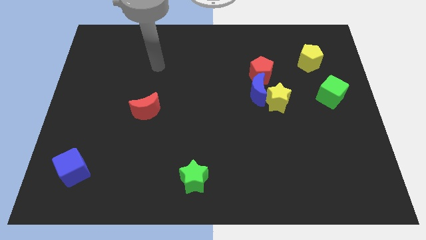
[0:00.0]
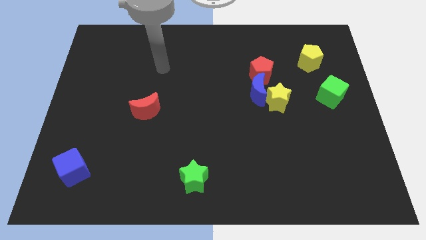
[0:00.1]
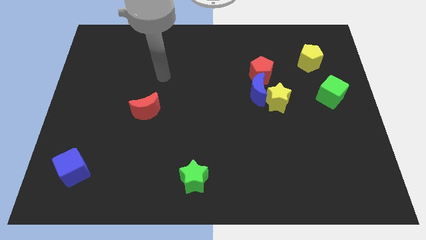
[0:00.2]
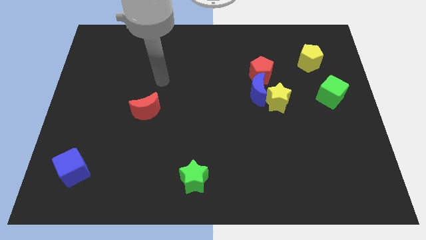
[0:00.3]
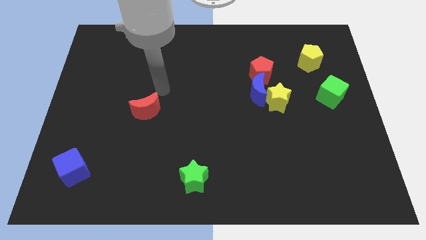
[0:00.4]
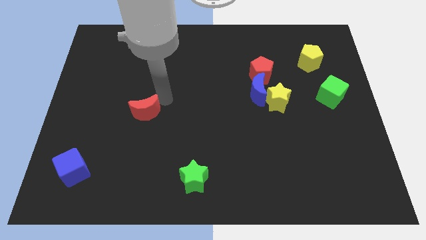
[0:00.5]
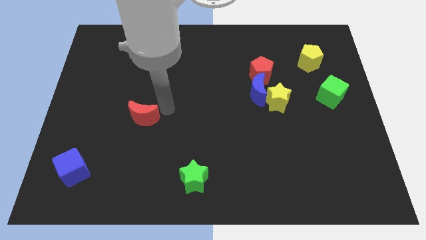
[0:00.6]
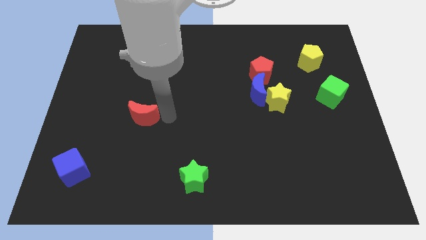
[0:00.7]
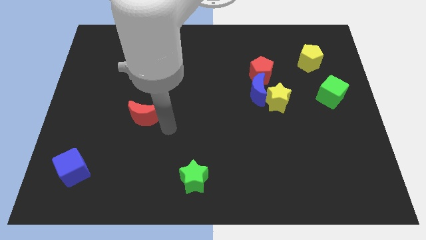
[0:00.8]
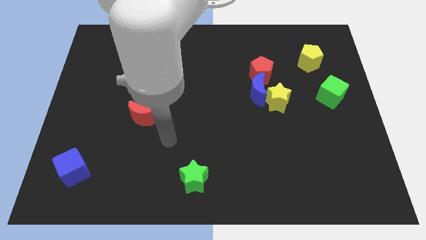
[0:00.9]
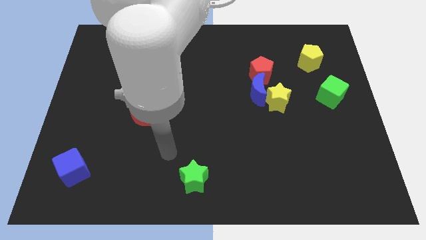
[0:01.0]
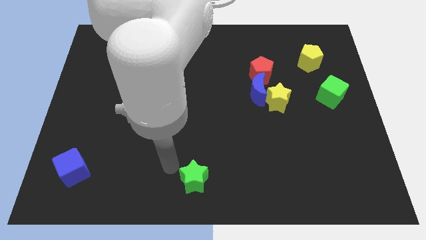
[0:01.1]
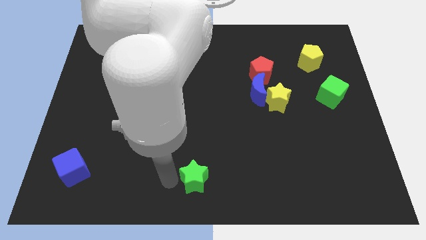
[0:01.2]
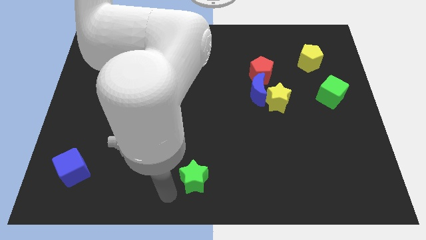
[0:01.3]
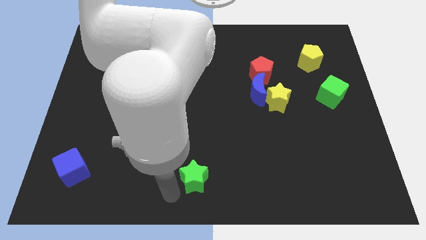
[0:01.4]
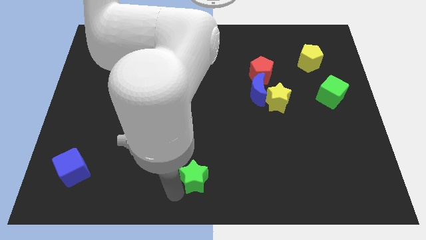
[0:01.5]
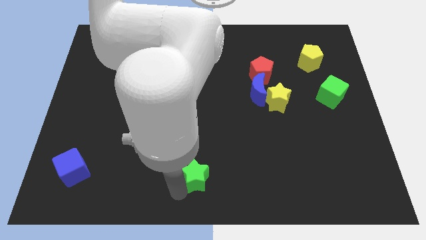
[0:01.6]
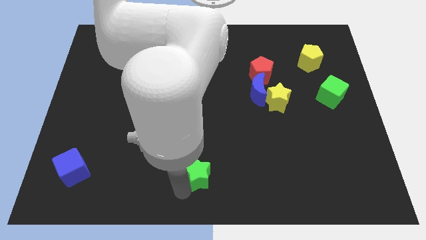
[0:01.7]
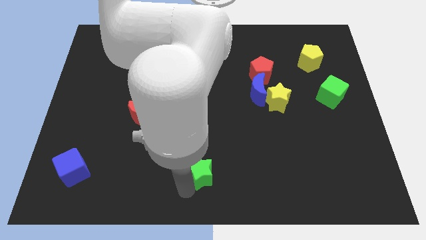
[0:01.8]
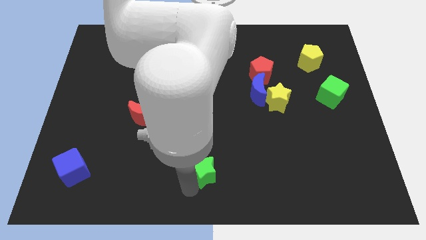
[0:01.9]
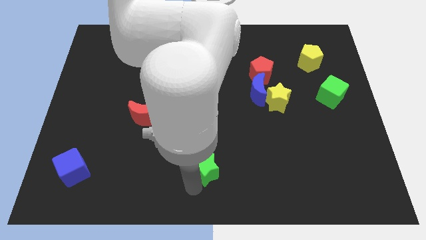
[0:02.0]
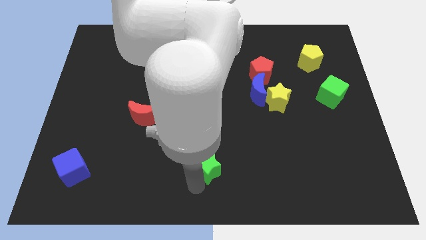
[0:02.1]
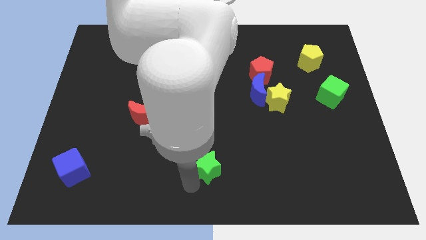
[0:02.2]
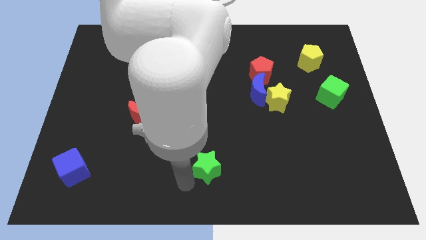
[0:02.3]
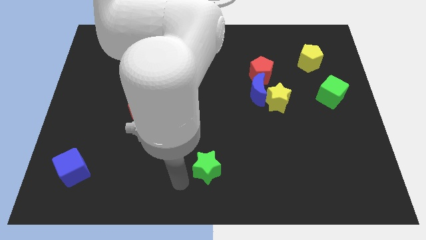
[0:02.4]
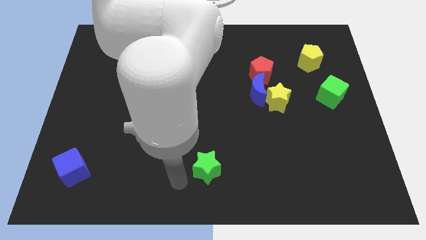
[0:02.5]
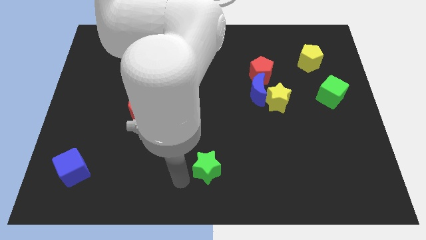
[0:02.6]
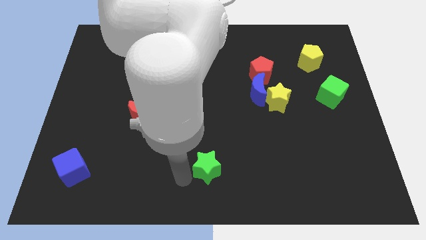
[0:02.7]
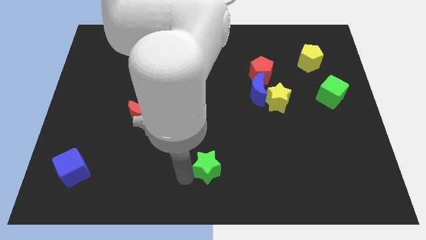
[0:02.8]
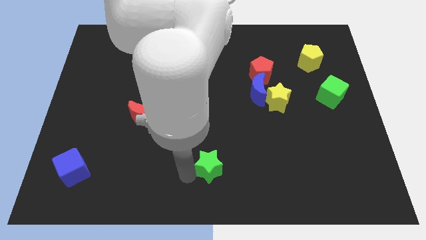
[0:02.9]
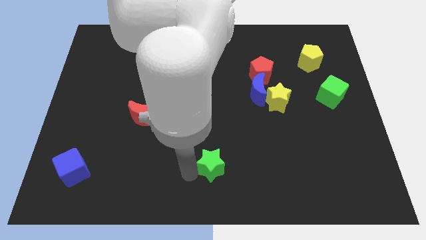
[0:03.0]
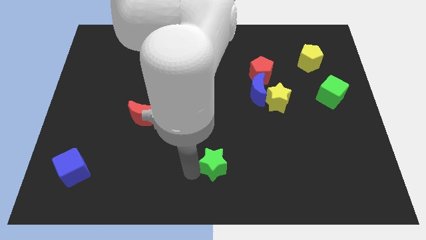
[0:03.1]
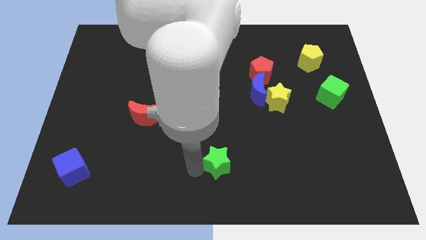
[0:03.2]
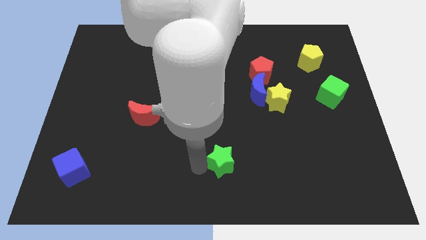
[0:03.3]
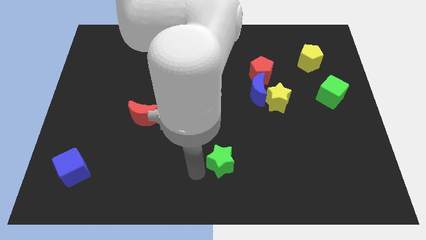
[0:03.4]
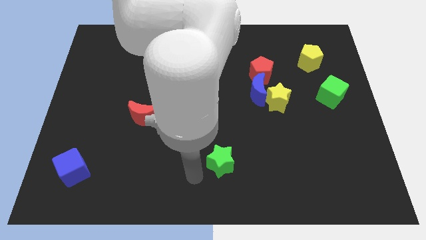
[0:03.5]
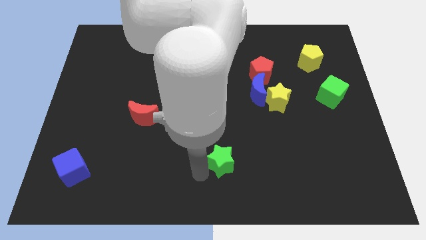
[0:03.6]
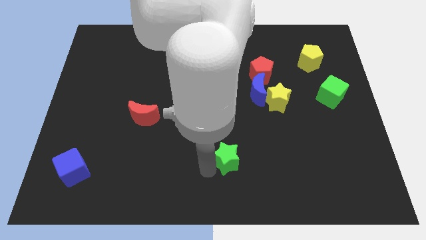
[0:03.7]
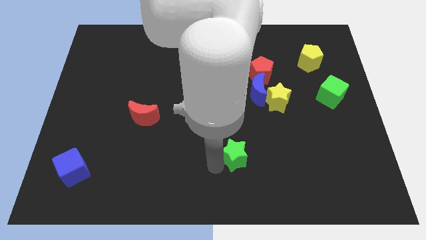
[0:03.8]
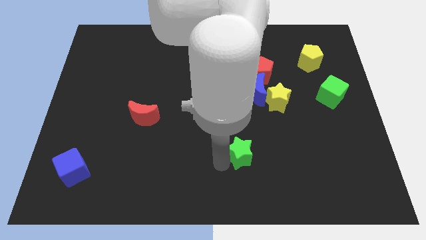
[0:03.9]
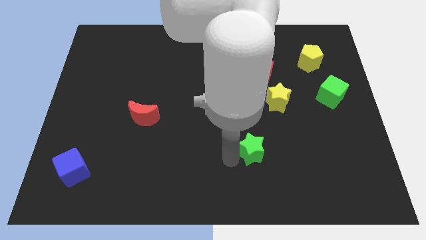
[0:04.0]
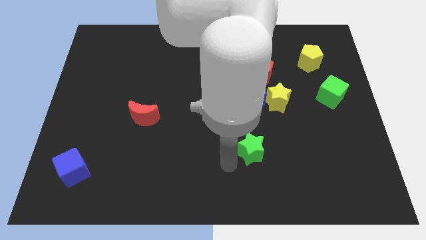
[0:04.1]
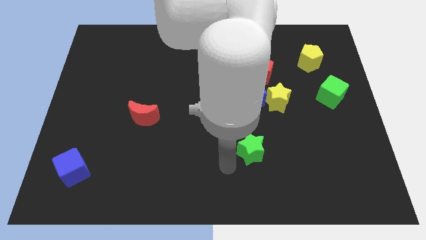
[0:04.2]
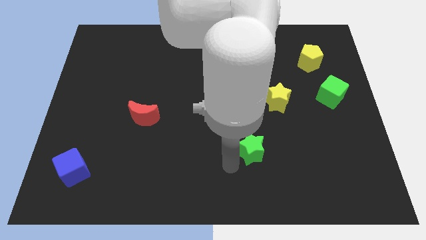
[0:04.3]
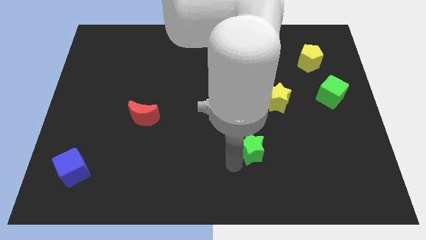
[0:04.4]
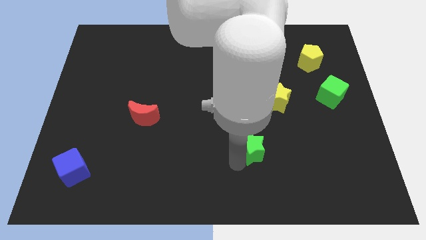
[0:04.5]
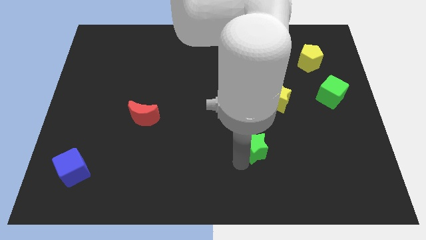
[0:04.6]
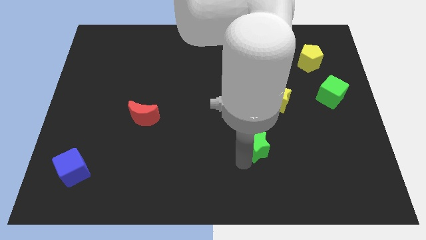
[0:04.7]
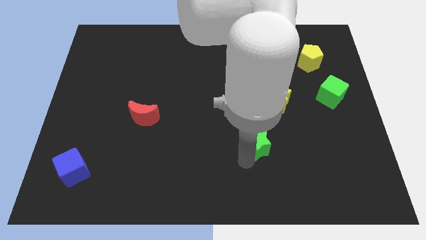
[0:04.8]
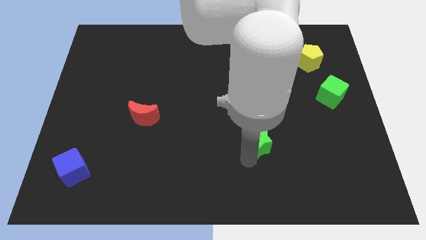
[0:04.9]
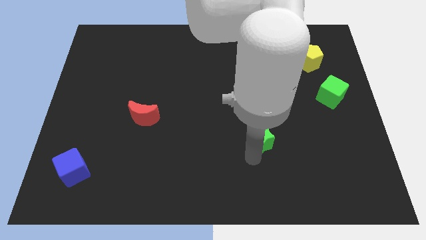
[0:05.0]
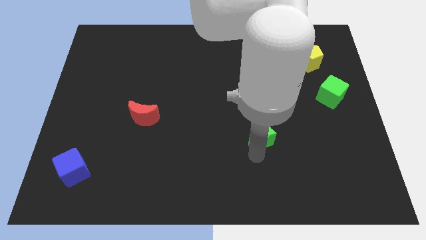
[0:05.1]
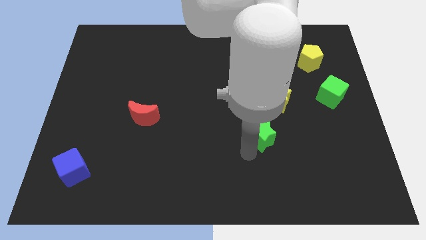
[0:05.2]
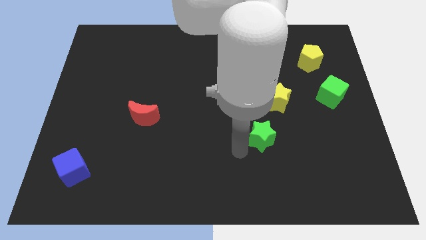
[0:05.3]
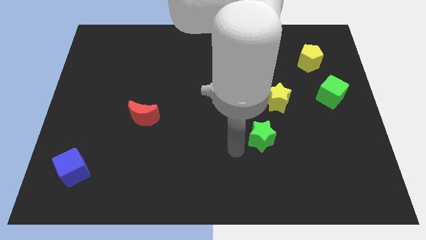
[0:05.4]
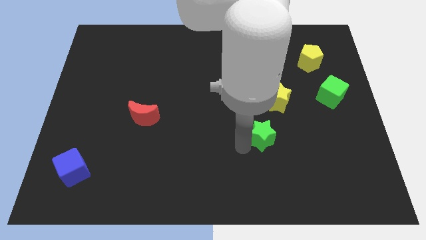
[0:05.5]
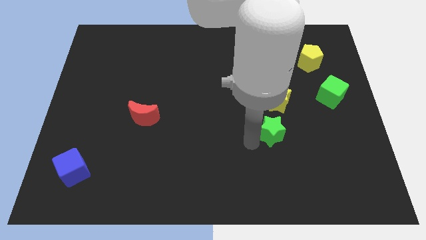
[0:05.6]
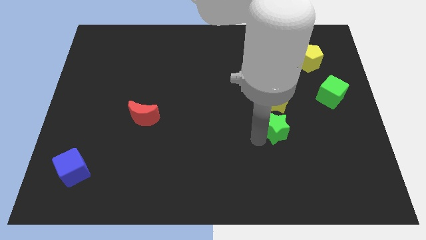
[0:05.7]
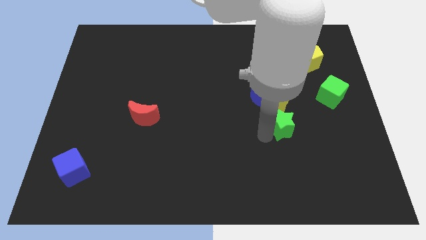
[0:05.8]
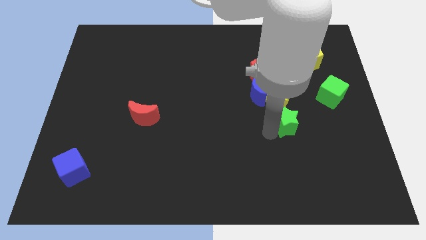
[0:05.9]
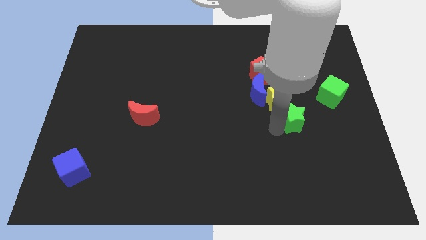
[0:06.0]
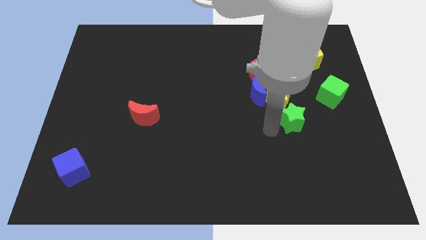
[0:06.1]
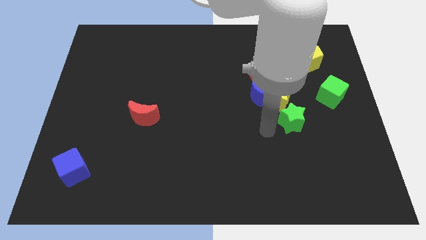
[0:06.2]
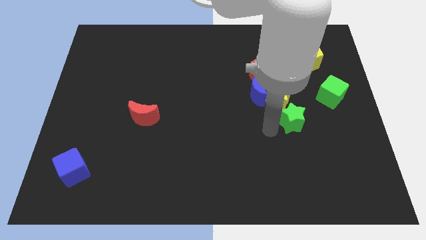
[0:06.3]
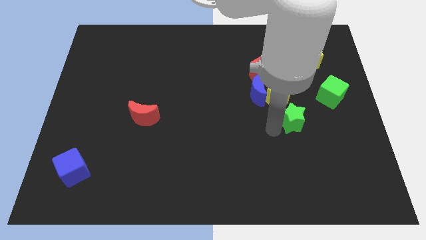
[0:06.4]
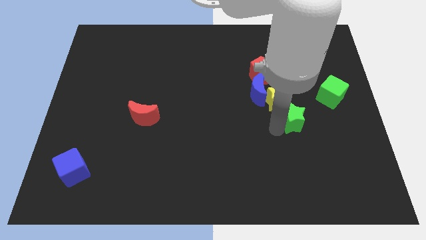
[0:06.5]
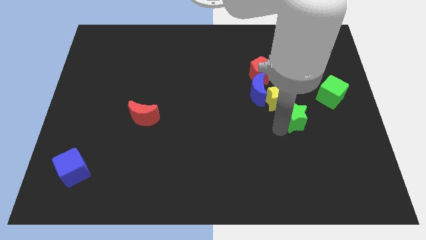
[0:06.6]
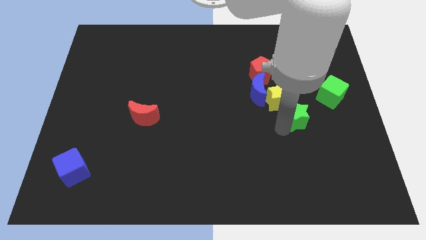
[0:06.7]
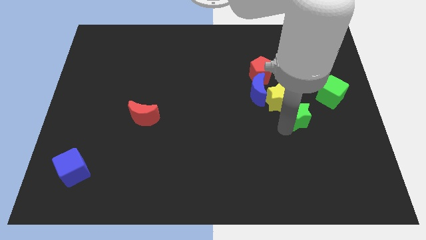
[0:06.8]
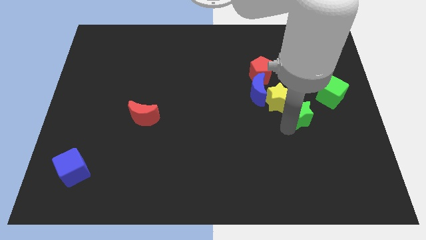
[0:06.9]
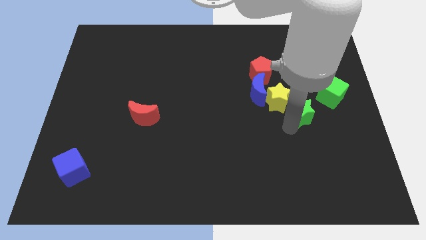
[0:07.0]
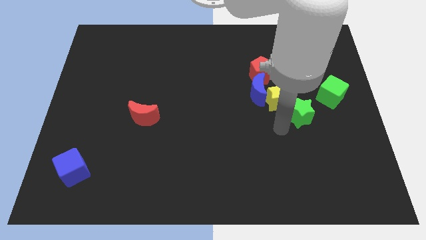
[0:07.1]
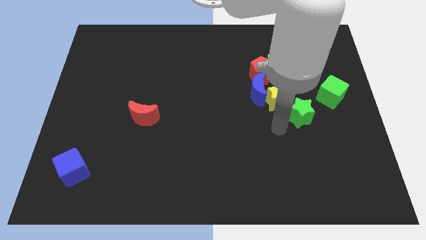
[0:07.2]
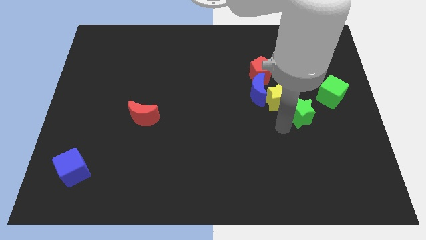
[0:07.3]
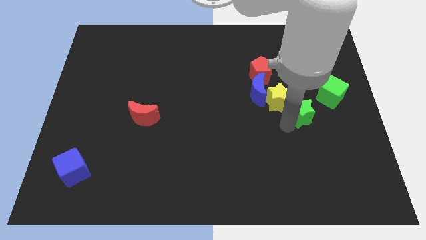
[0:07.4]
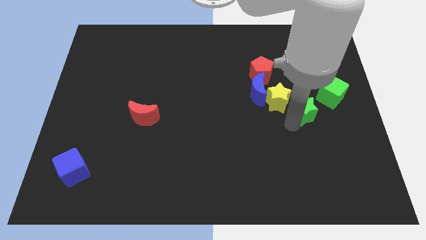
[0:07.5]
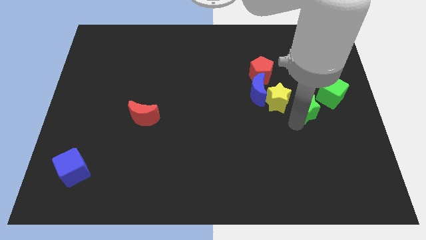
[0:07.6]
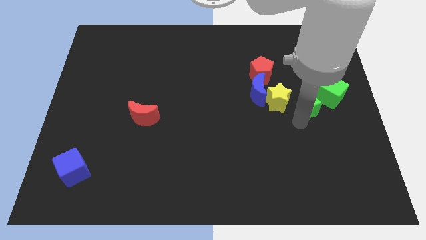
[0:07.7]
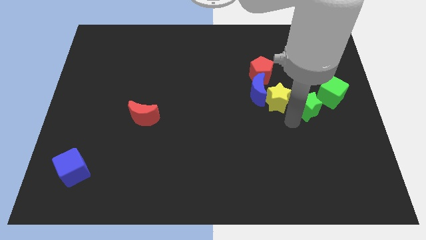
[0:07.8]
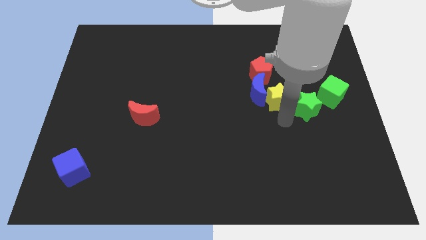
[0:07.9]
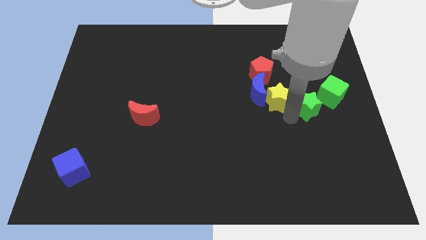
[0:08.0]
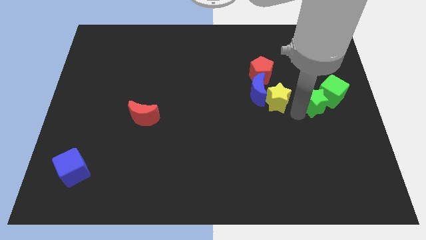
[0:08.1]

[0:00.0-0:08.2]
push the green star to the green cube
